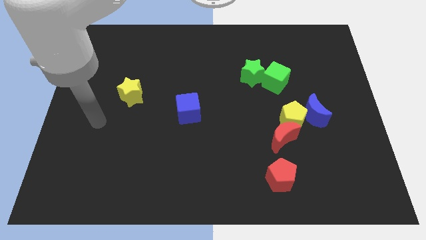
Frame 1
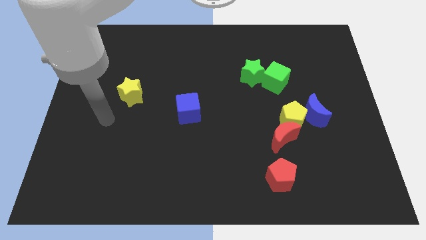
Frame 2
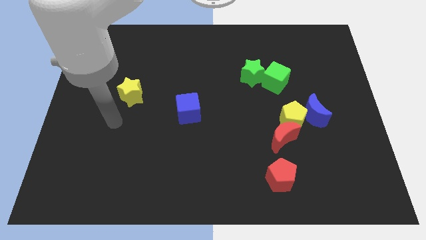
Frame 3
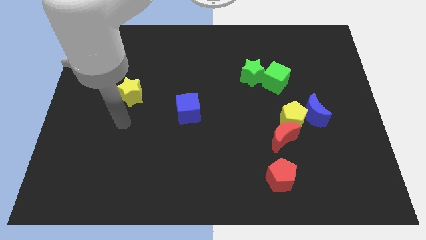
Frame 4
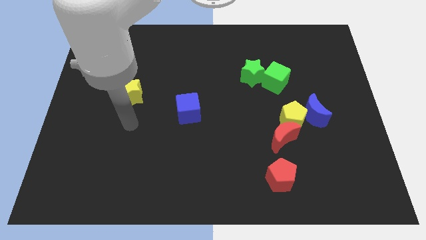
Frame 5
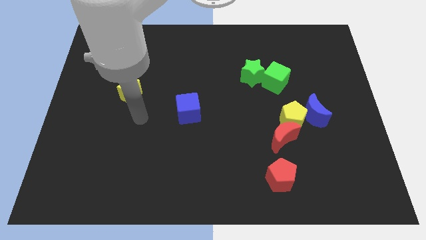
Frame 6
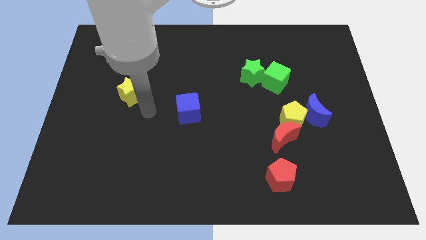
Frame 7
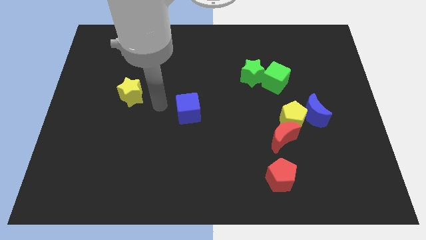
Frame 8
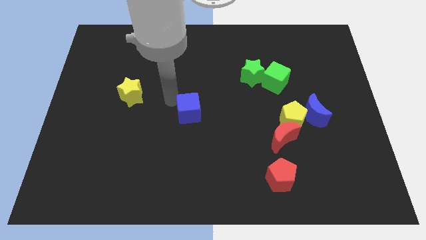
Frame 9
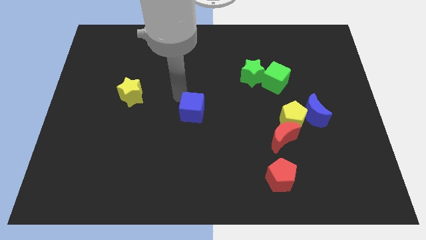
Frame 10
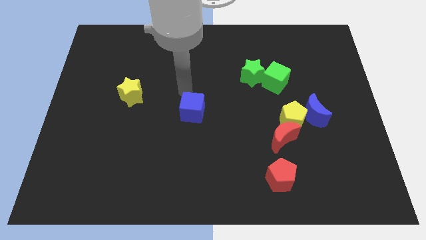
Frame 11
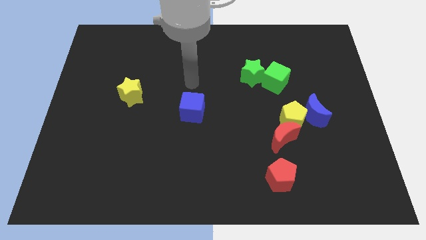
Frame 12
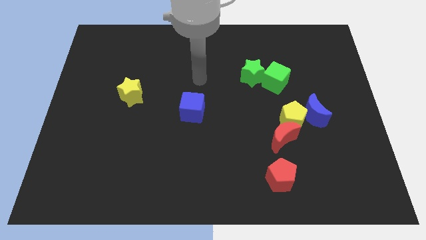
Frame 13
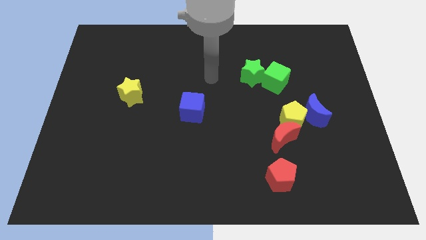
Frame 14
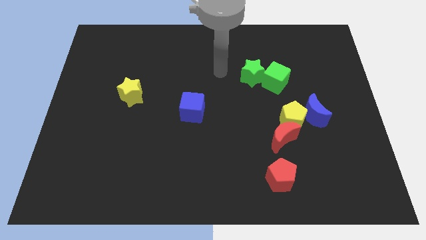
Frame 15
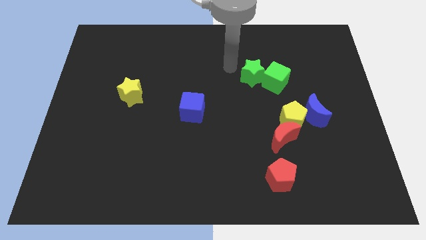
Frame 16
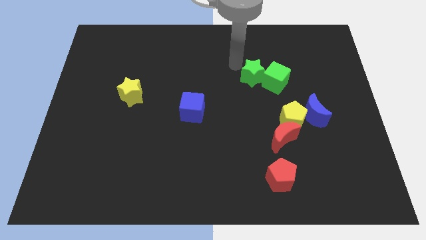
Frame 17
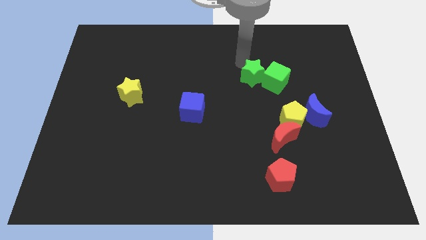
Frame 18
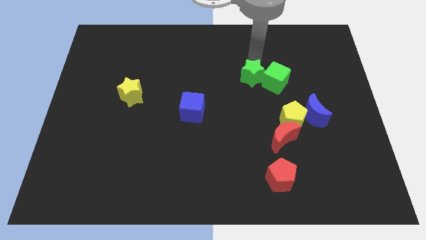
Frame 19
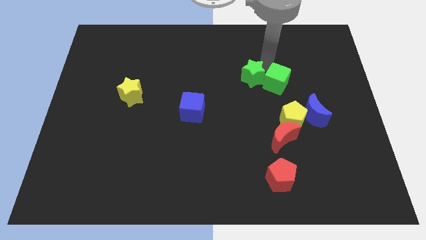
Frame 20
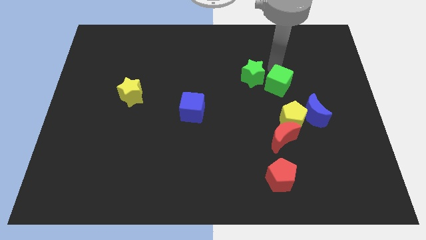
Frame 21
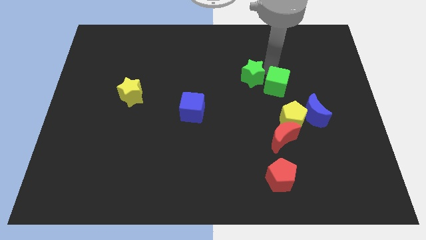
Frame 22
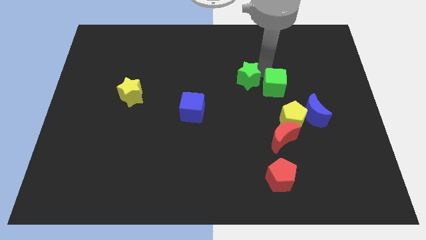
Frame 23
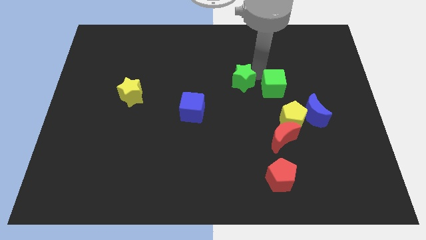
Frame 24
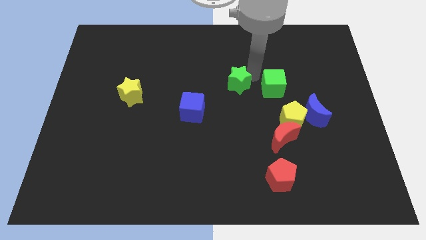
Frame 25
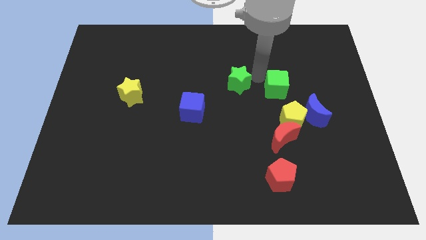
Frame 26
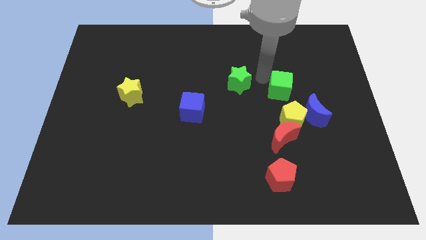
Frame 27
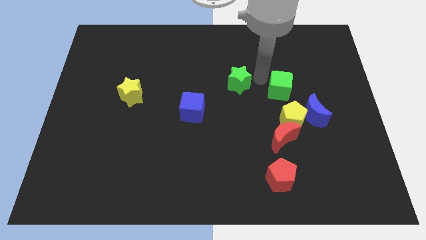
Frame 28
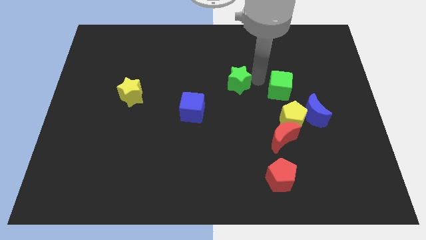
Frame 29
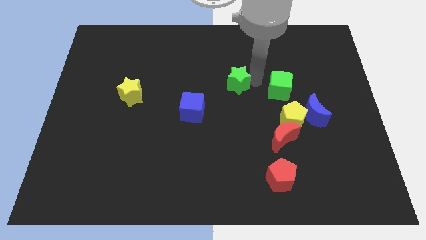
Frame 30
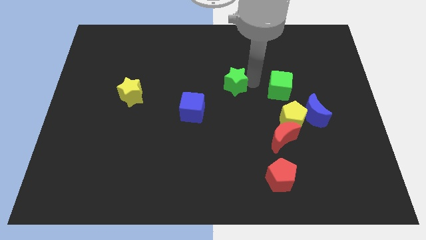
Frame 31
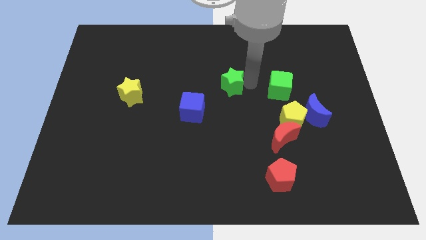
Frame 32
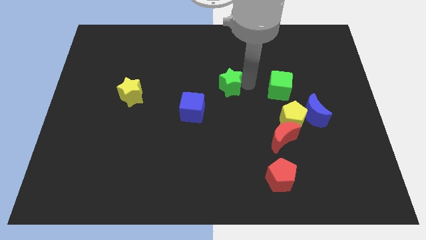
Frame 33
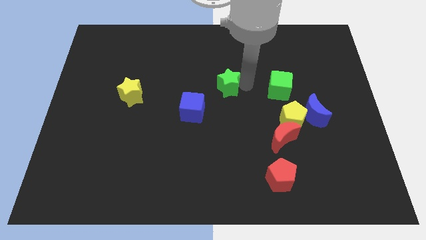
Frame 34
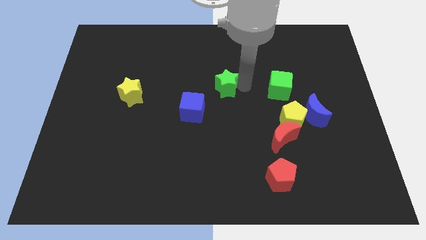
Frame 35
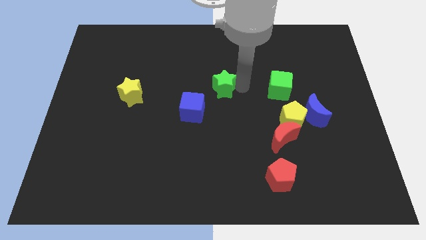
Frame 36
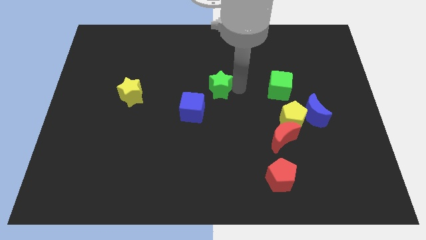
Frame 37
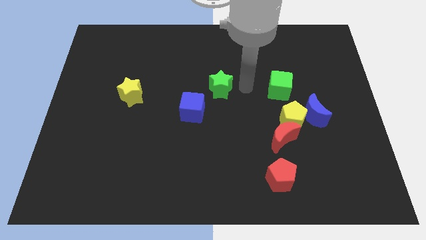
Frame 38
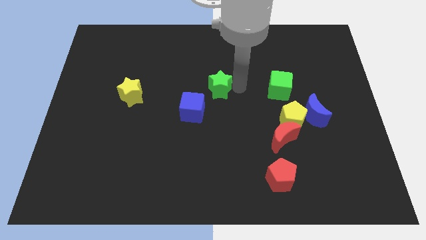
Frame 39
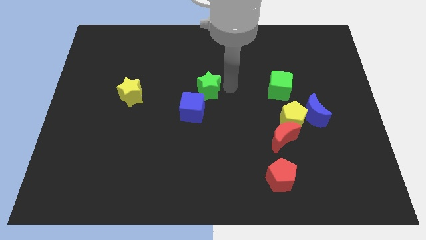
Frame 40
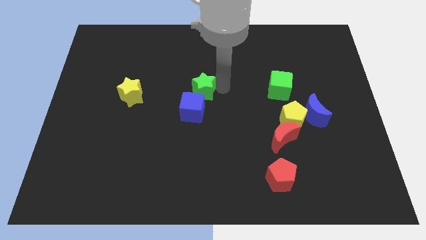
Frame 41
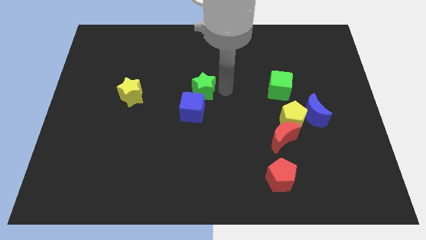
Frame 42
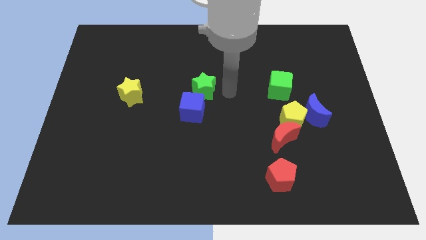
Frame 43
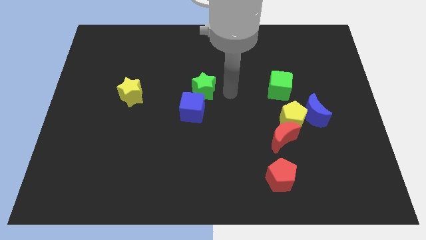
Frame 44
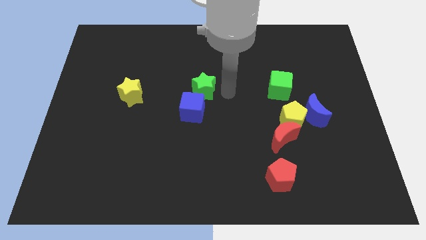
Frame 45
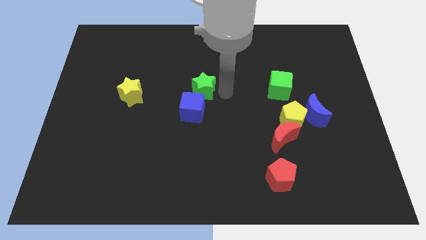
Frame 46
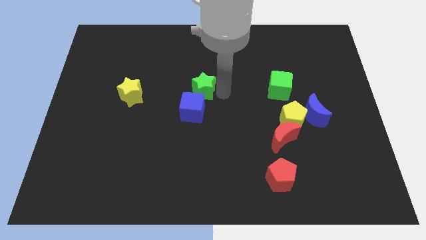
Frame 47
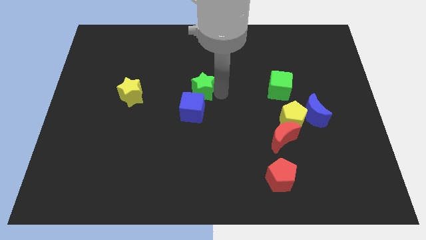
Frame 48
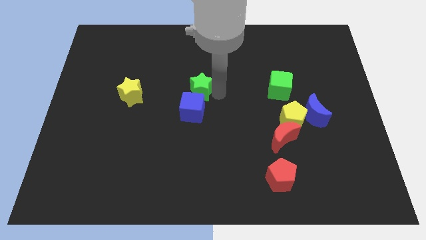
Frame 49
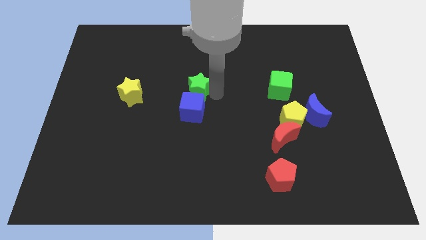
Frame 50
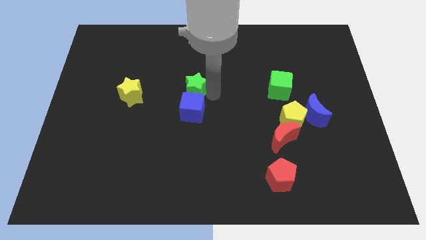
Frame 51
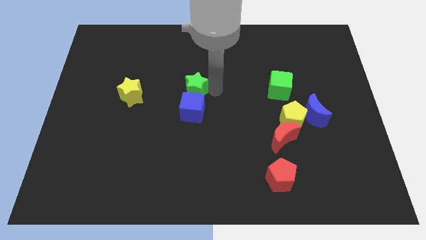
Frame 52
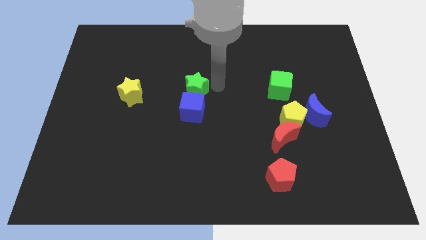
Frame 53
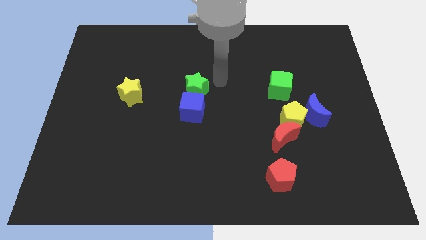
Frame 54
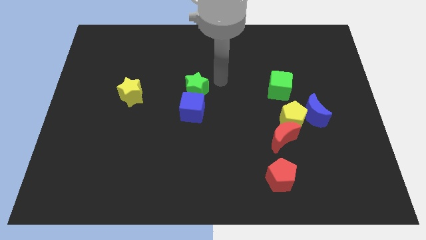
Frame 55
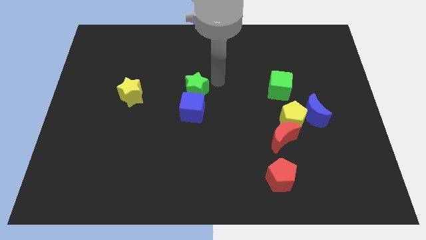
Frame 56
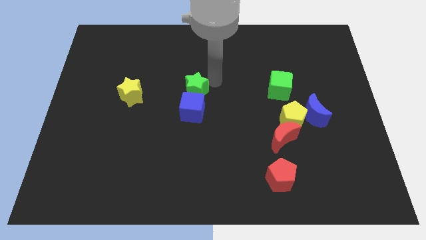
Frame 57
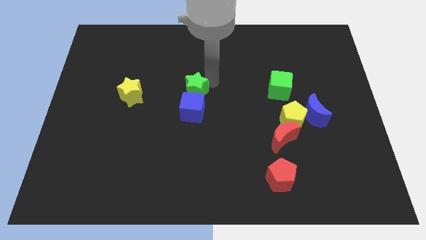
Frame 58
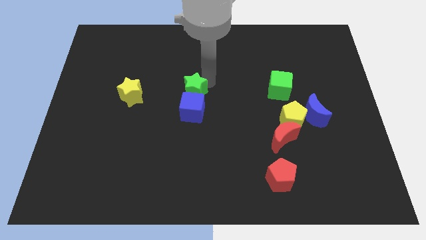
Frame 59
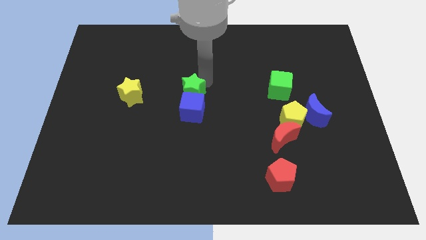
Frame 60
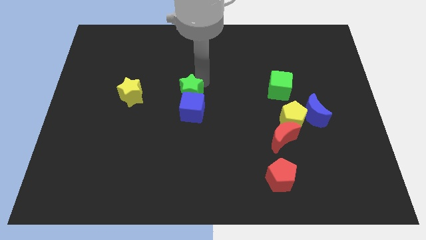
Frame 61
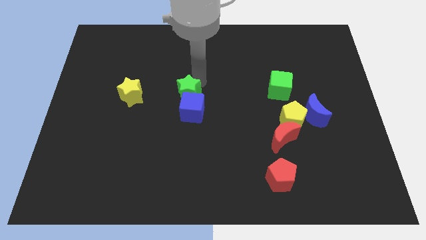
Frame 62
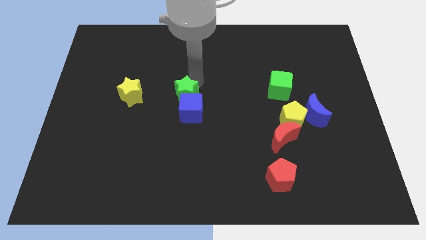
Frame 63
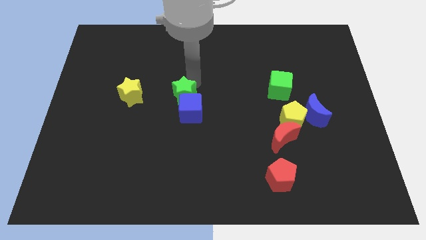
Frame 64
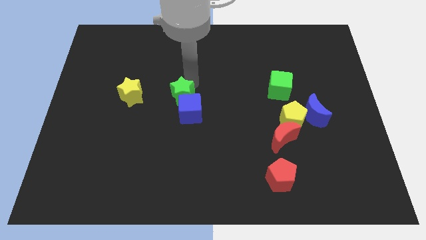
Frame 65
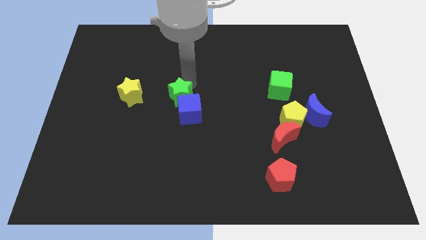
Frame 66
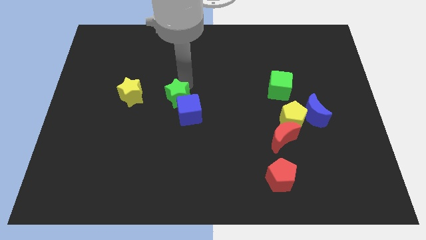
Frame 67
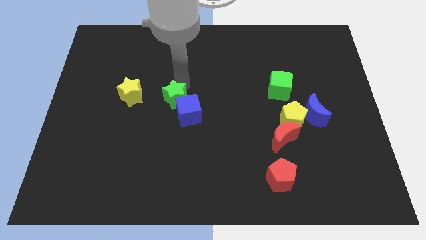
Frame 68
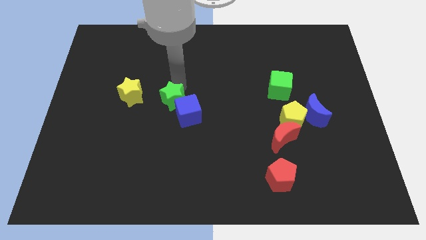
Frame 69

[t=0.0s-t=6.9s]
move the green star just left of the blue cube

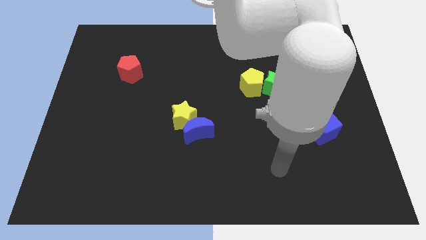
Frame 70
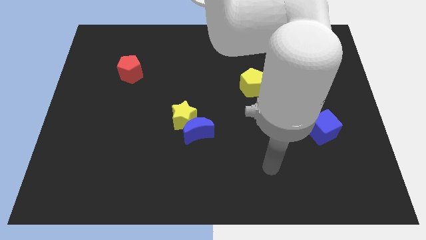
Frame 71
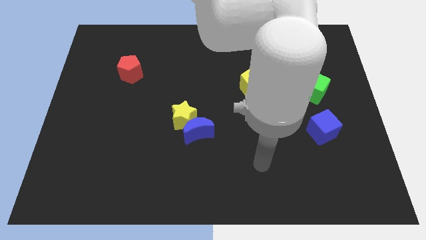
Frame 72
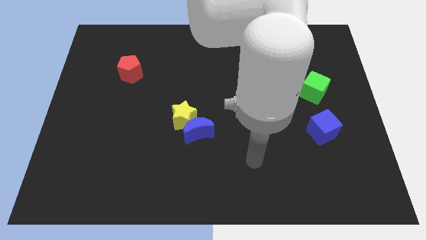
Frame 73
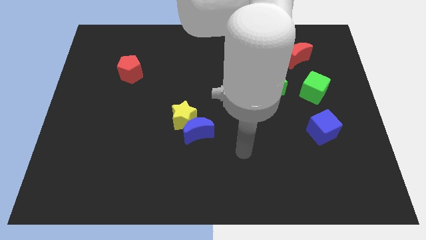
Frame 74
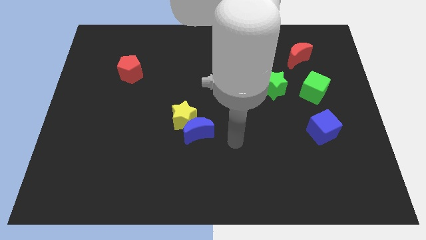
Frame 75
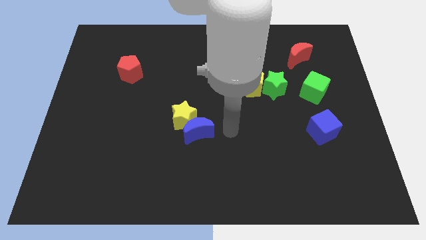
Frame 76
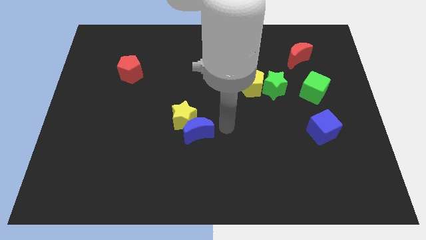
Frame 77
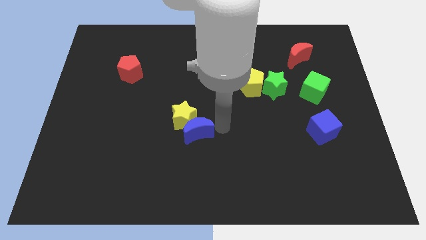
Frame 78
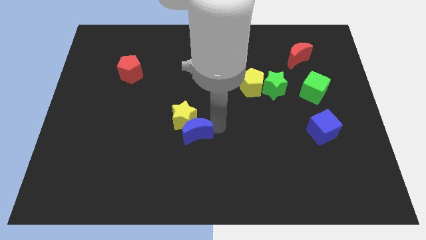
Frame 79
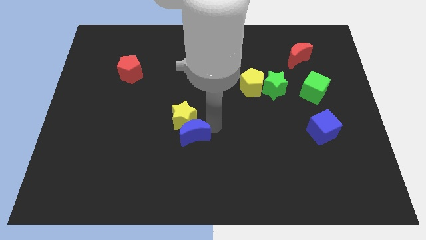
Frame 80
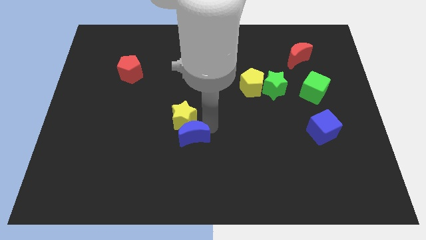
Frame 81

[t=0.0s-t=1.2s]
slide the blue moon to the bottom left of the yellow star
